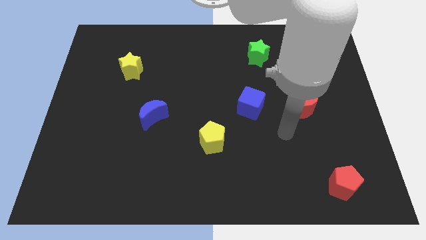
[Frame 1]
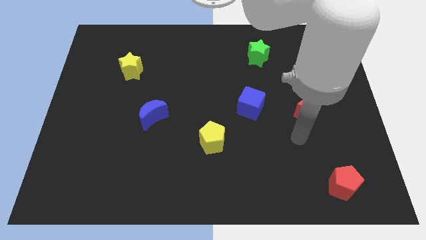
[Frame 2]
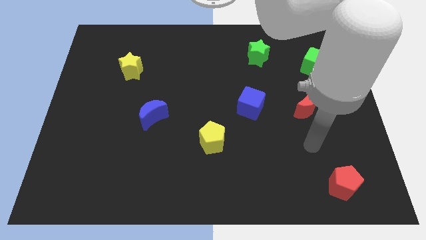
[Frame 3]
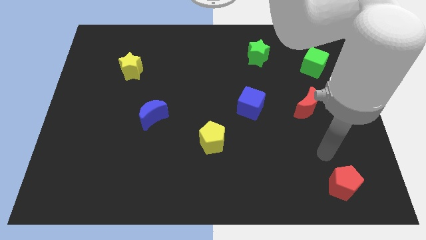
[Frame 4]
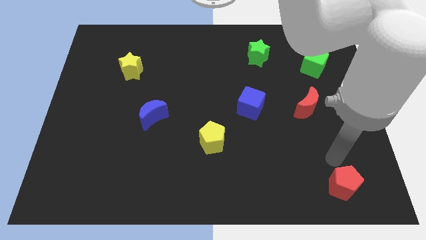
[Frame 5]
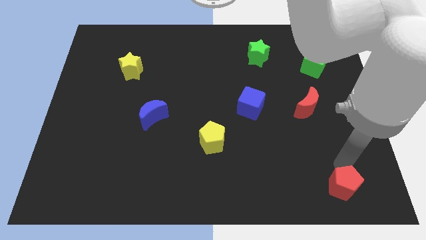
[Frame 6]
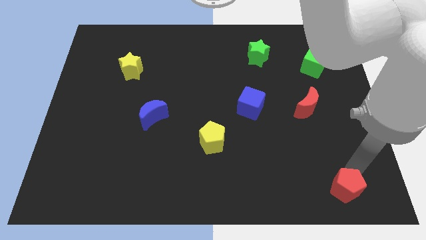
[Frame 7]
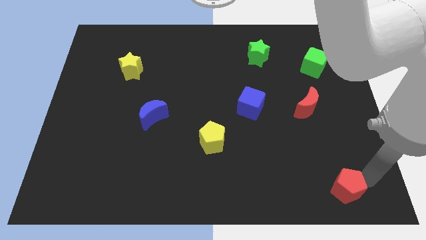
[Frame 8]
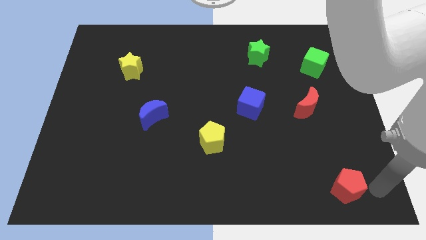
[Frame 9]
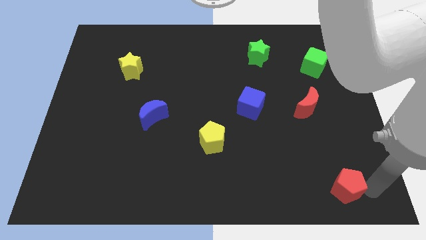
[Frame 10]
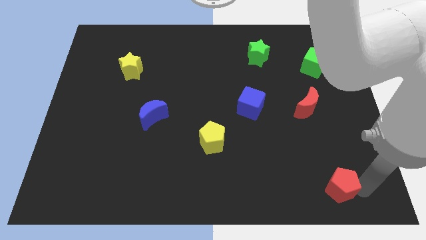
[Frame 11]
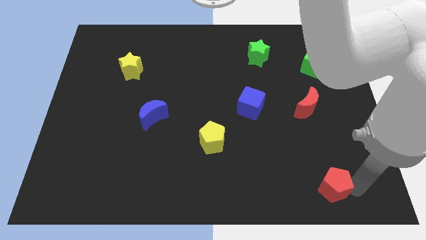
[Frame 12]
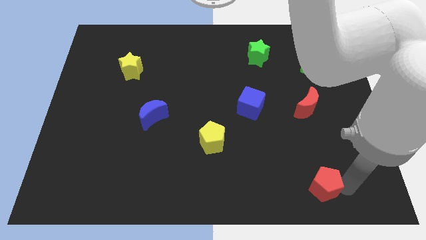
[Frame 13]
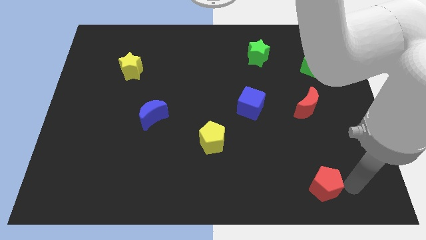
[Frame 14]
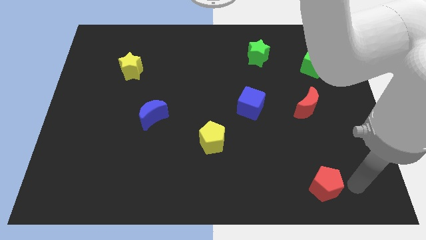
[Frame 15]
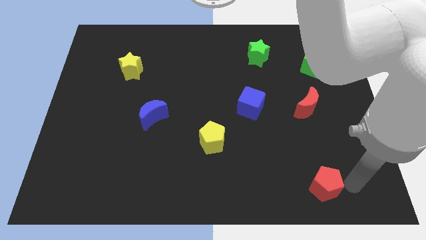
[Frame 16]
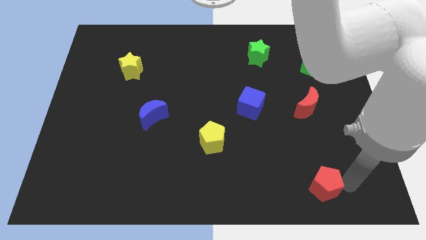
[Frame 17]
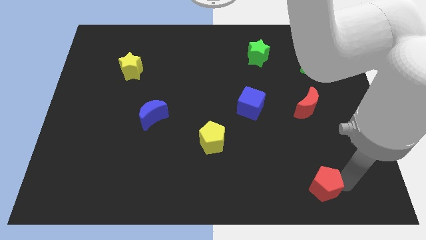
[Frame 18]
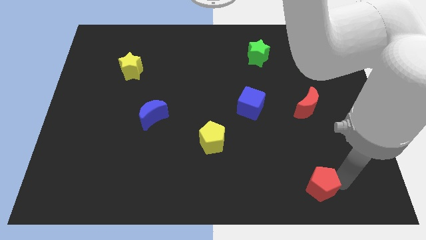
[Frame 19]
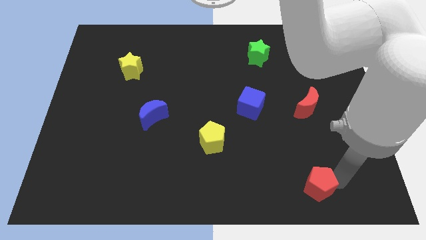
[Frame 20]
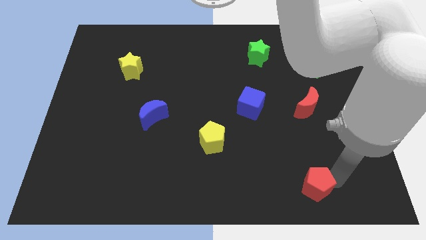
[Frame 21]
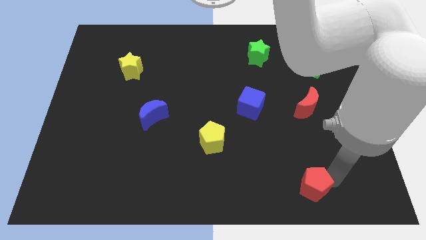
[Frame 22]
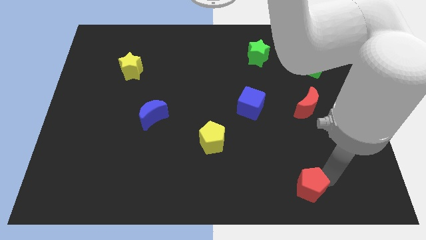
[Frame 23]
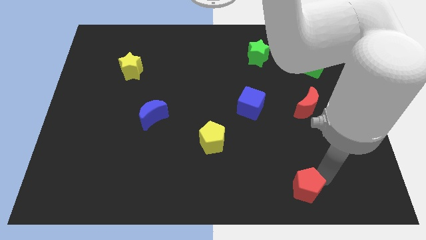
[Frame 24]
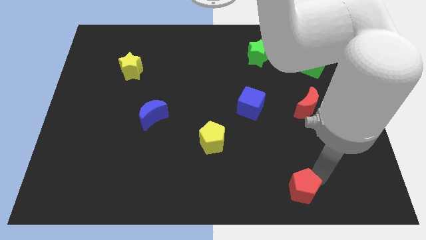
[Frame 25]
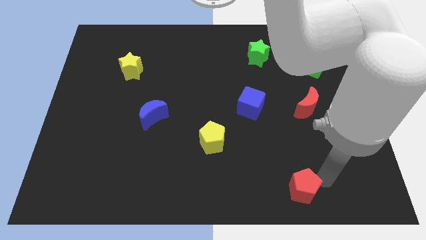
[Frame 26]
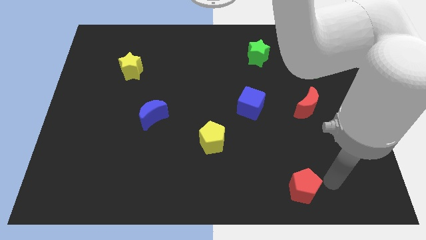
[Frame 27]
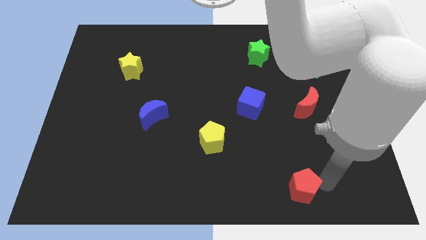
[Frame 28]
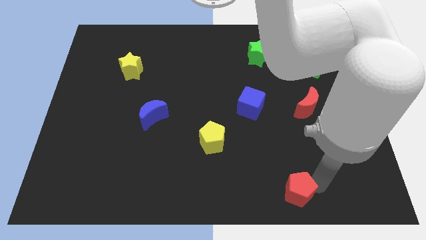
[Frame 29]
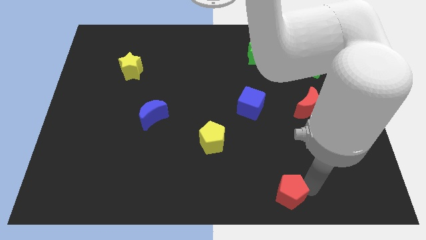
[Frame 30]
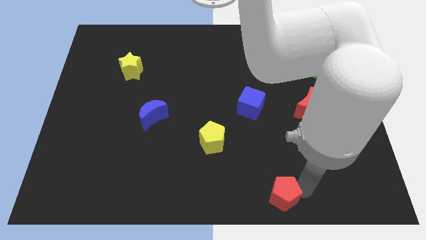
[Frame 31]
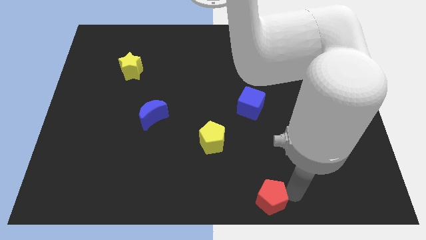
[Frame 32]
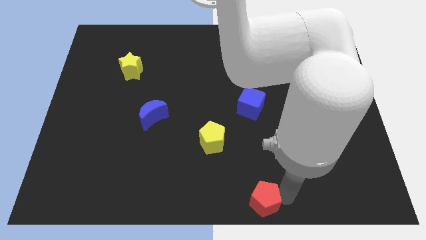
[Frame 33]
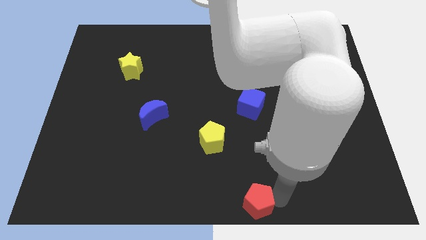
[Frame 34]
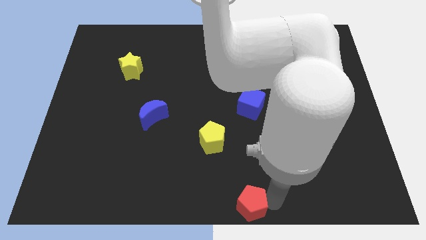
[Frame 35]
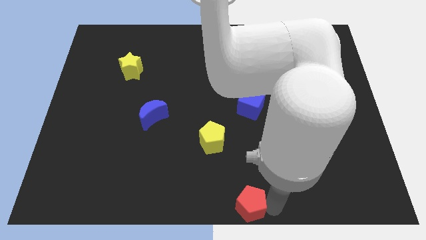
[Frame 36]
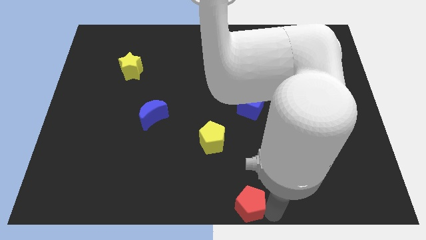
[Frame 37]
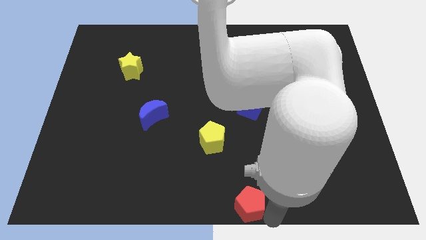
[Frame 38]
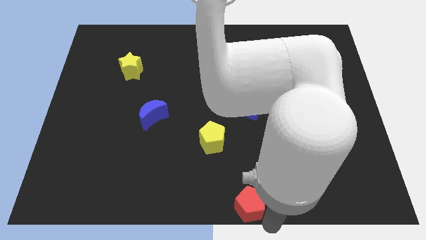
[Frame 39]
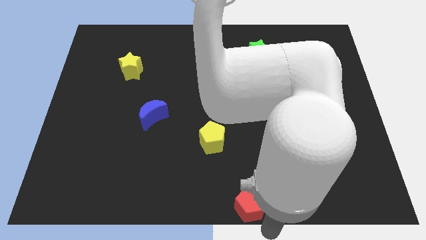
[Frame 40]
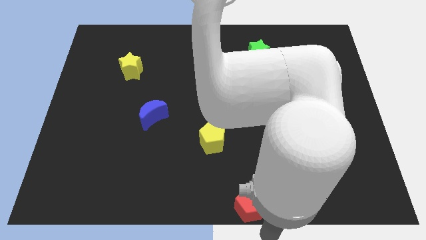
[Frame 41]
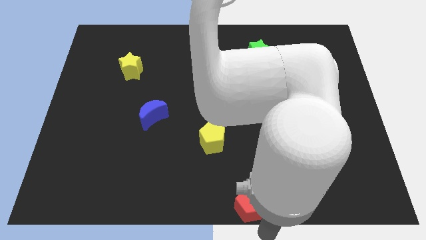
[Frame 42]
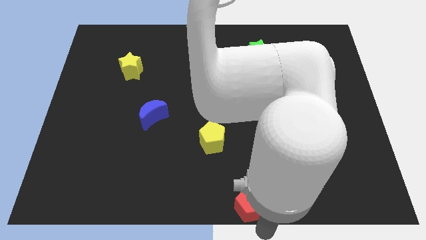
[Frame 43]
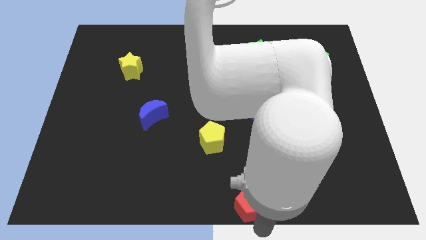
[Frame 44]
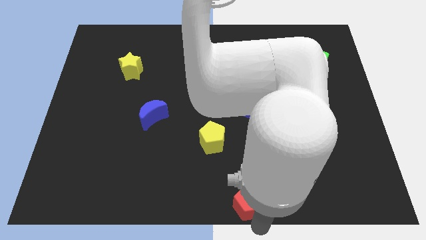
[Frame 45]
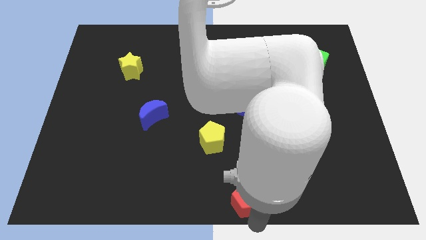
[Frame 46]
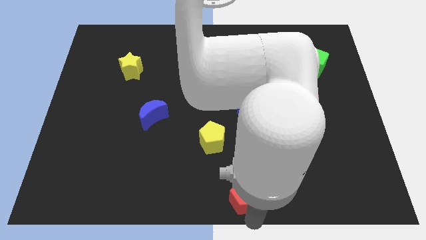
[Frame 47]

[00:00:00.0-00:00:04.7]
push the red pentagon to the left

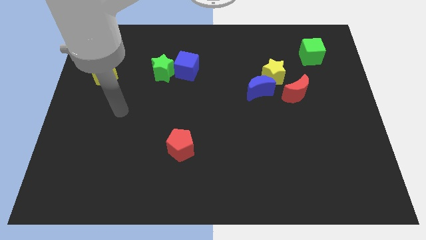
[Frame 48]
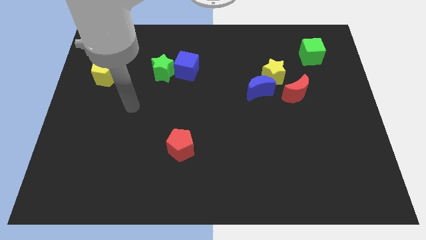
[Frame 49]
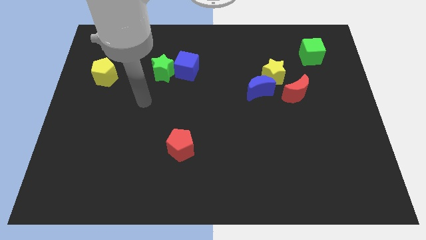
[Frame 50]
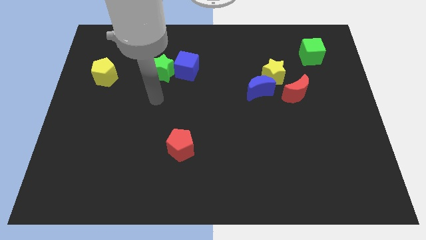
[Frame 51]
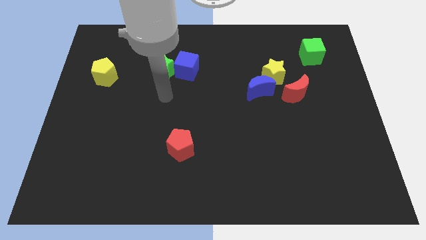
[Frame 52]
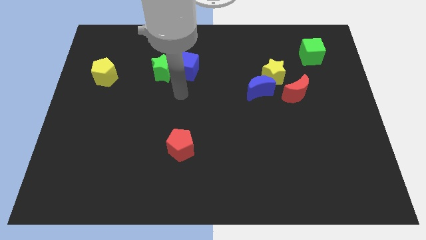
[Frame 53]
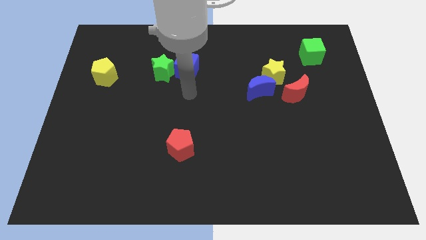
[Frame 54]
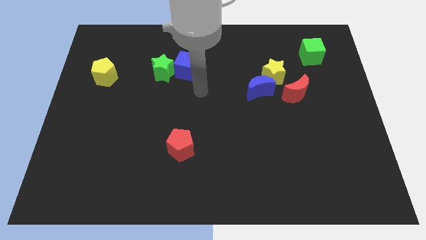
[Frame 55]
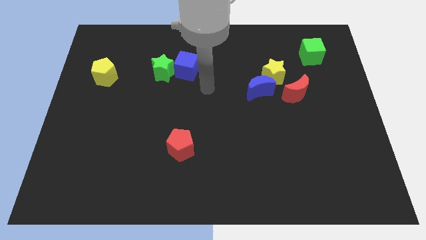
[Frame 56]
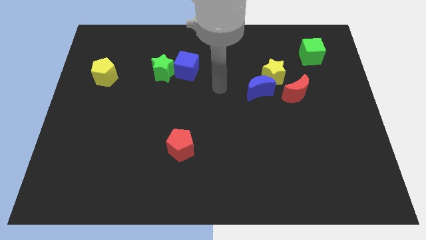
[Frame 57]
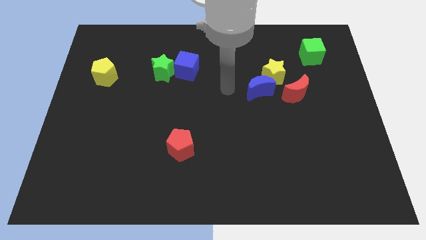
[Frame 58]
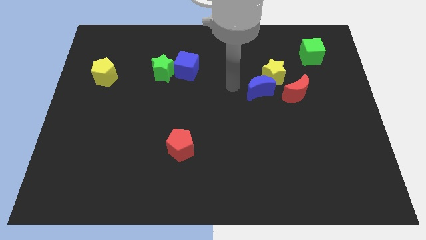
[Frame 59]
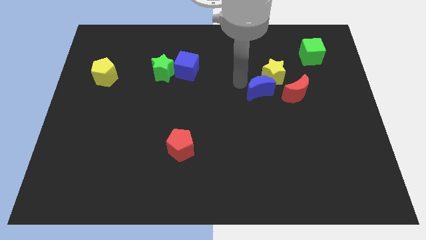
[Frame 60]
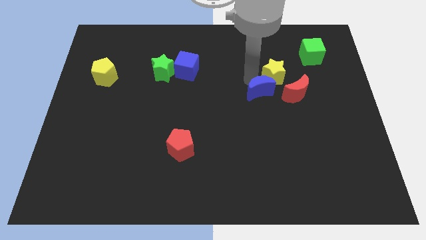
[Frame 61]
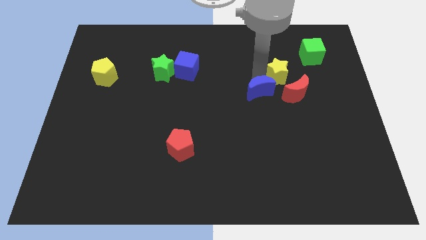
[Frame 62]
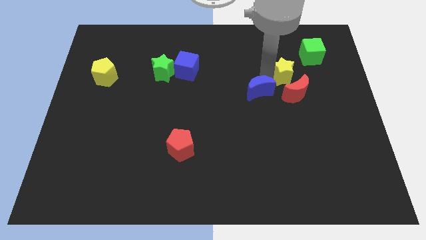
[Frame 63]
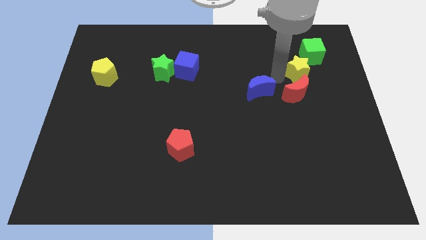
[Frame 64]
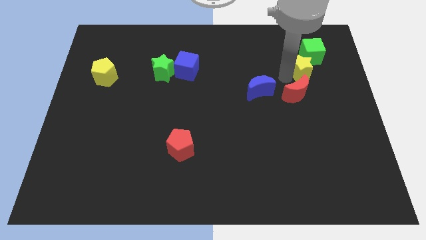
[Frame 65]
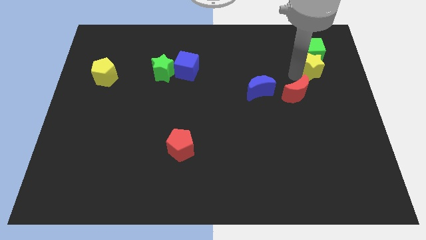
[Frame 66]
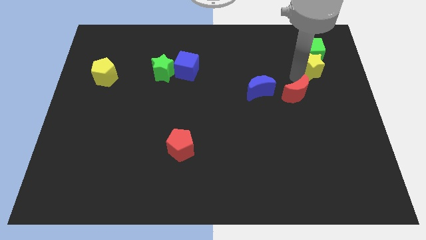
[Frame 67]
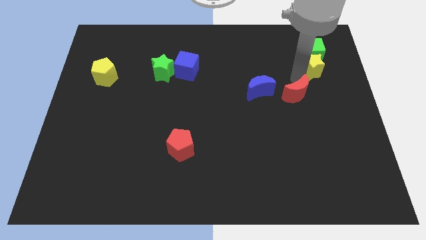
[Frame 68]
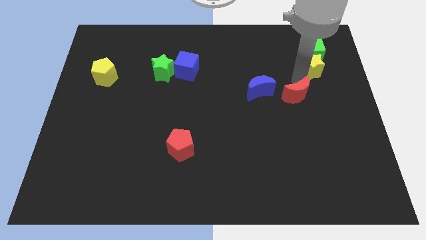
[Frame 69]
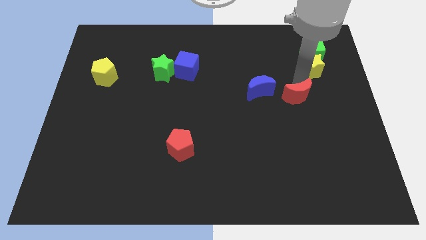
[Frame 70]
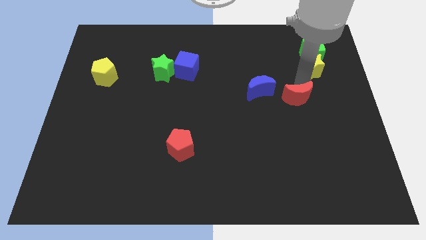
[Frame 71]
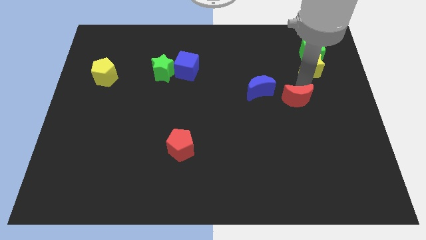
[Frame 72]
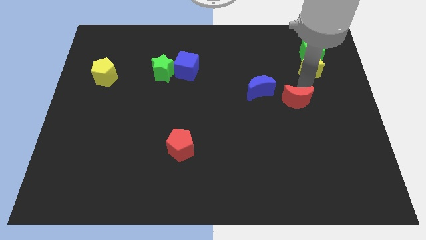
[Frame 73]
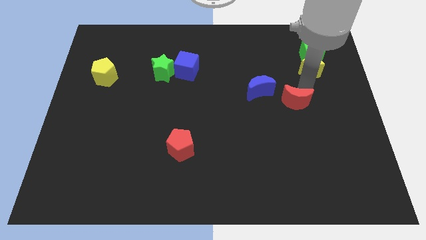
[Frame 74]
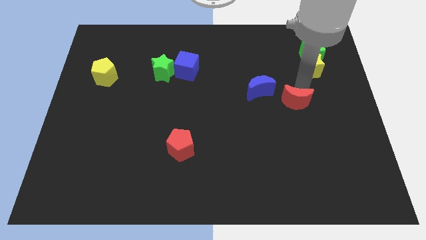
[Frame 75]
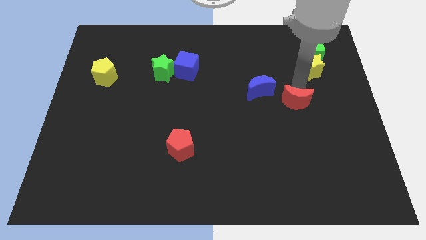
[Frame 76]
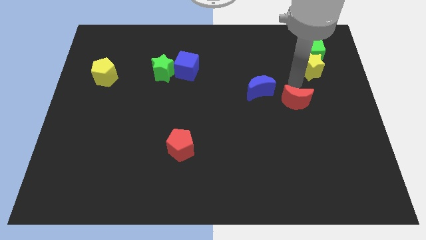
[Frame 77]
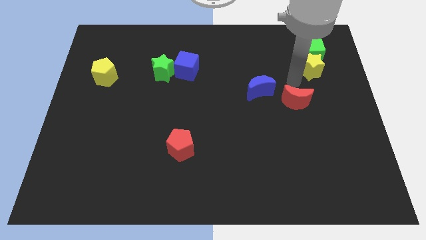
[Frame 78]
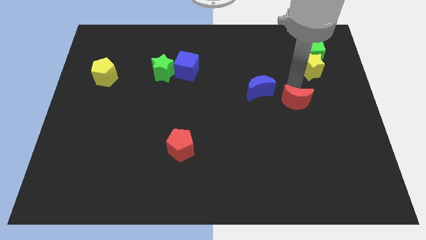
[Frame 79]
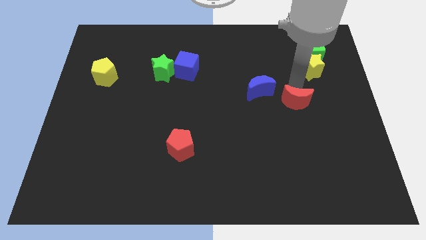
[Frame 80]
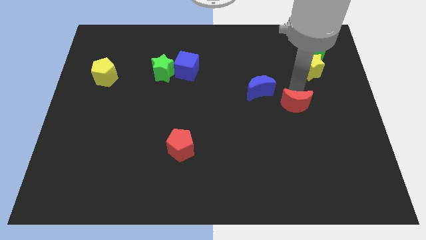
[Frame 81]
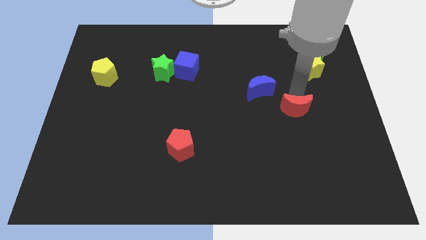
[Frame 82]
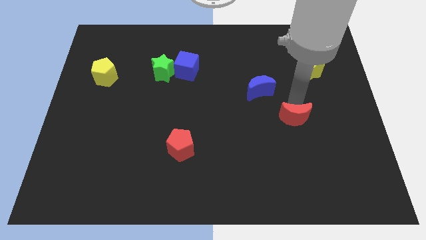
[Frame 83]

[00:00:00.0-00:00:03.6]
slightly slide the red moon down
